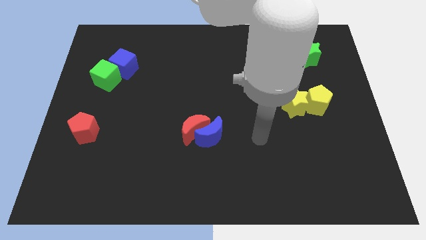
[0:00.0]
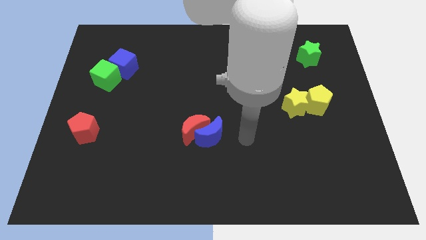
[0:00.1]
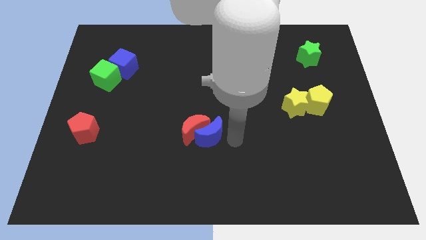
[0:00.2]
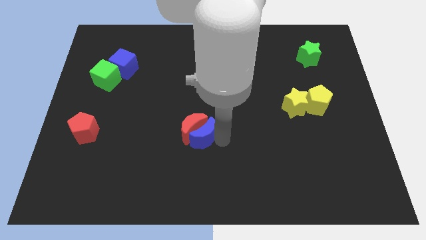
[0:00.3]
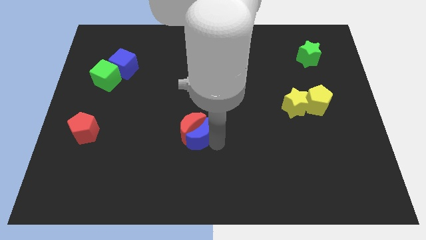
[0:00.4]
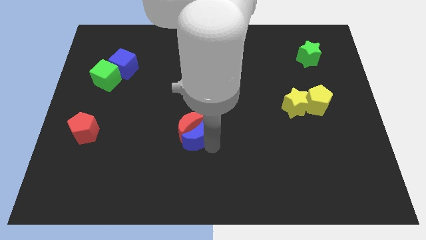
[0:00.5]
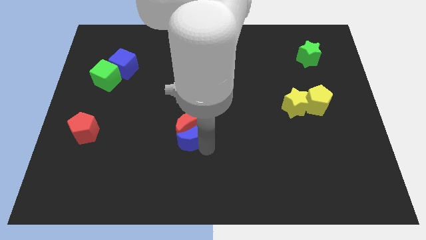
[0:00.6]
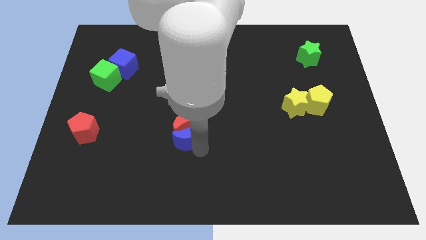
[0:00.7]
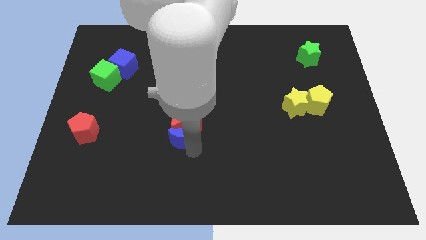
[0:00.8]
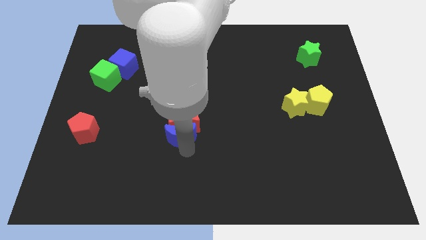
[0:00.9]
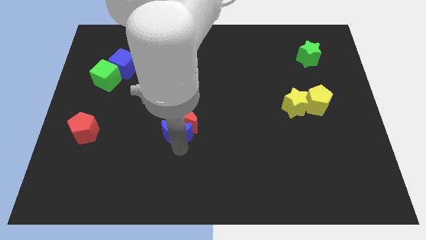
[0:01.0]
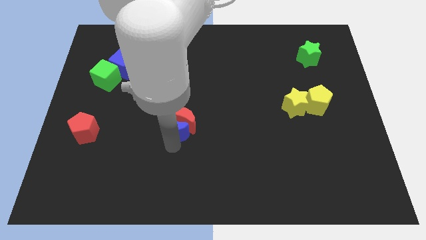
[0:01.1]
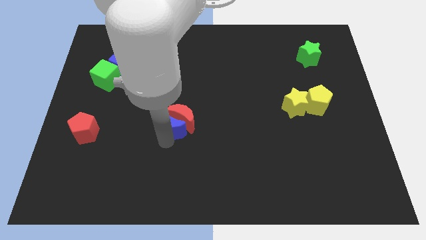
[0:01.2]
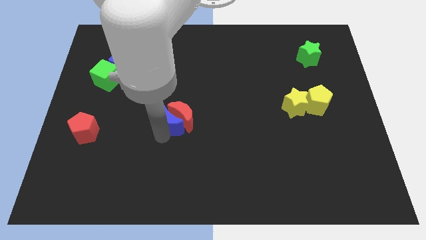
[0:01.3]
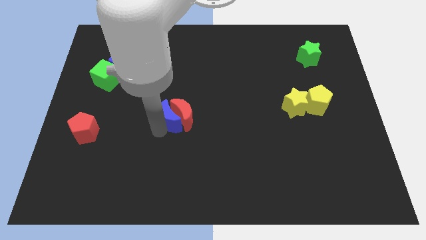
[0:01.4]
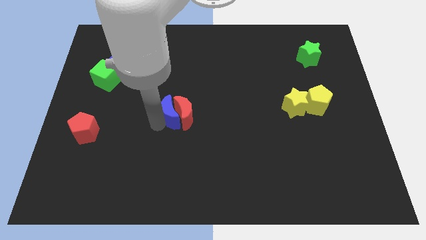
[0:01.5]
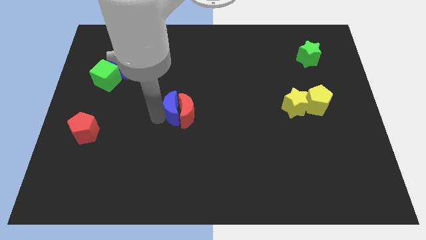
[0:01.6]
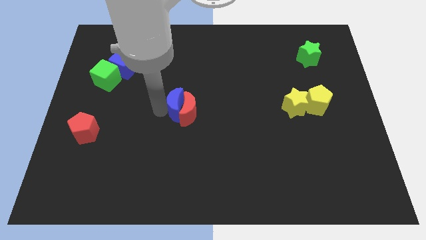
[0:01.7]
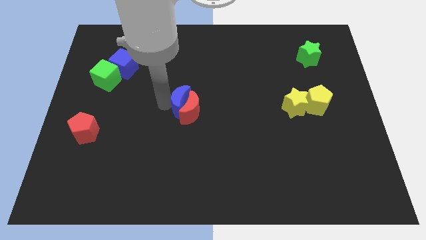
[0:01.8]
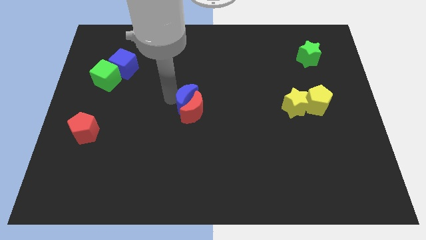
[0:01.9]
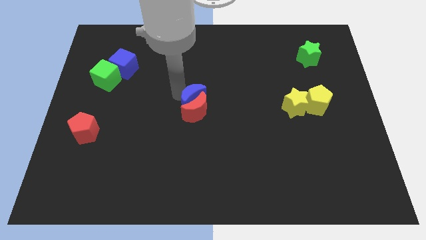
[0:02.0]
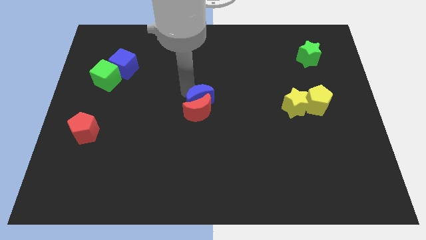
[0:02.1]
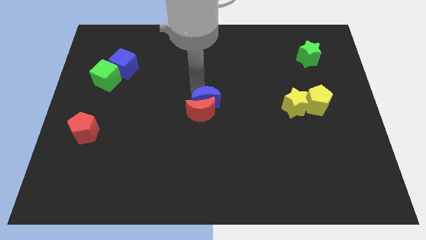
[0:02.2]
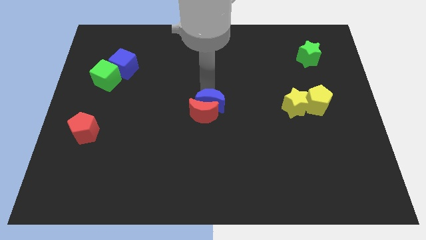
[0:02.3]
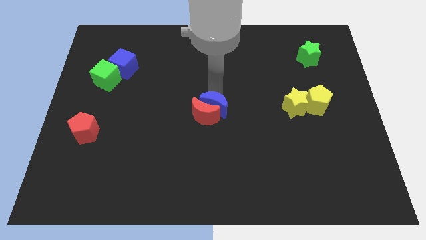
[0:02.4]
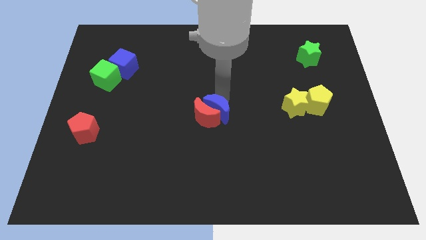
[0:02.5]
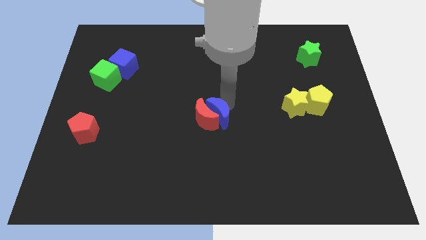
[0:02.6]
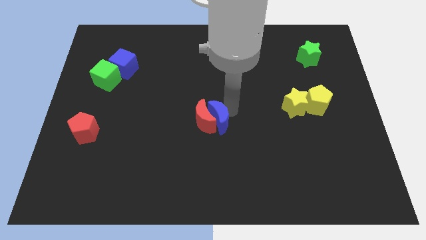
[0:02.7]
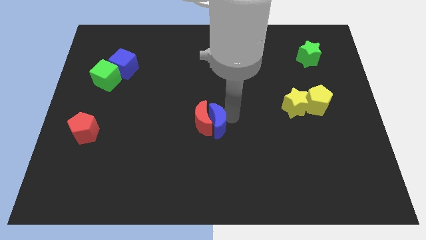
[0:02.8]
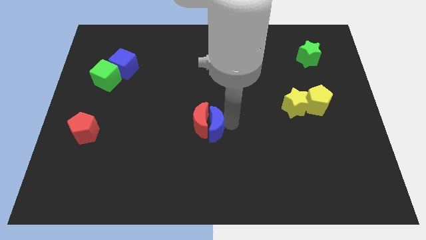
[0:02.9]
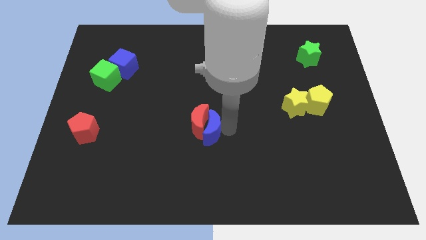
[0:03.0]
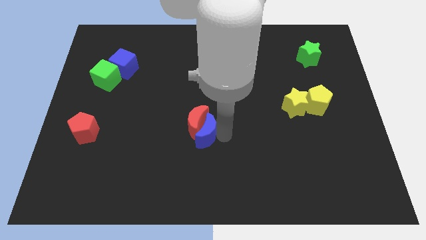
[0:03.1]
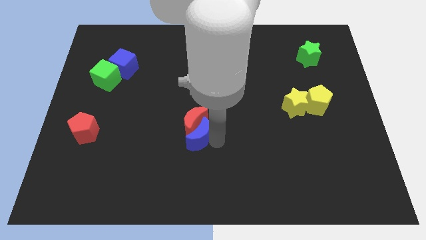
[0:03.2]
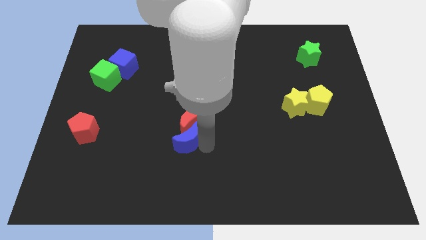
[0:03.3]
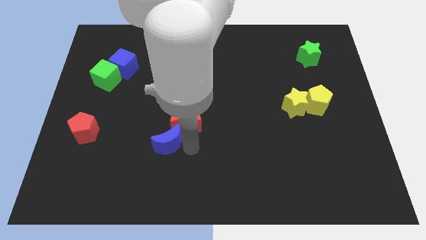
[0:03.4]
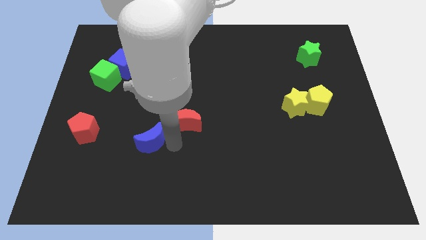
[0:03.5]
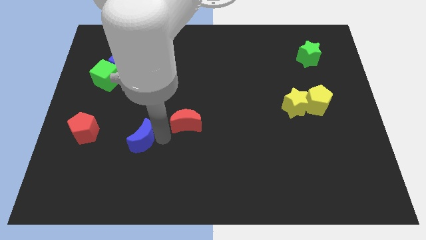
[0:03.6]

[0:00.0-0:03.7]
pull the red moon apart from the blue moon

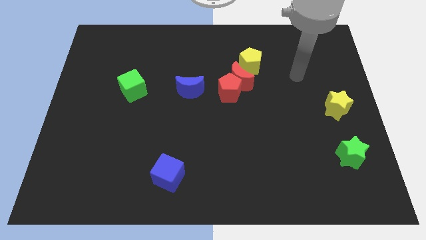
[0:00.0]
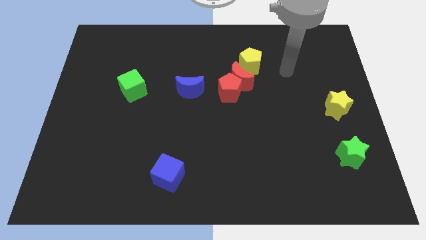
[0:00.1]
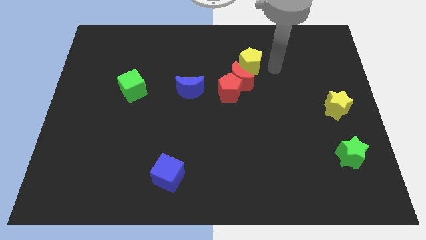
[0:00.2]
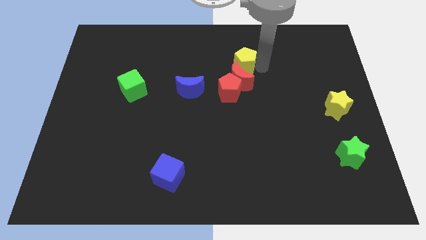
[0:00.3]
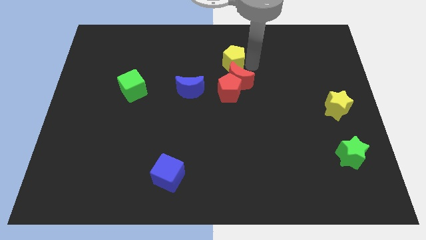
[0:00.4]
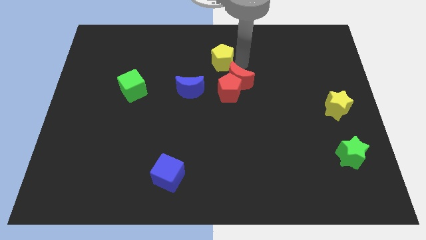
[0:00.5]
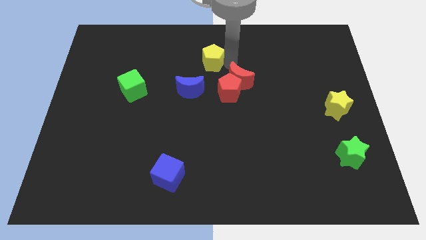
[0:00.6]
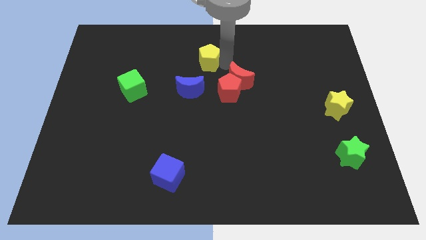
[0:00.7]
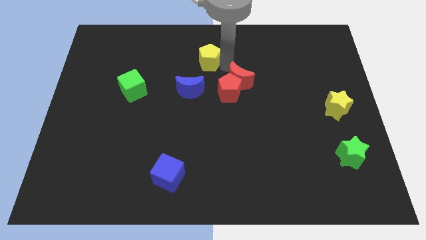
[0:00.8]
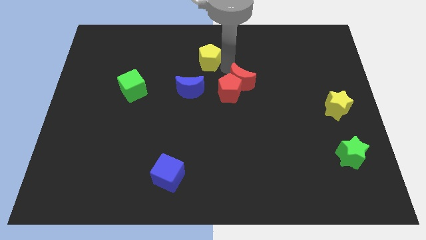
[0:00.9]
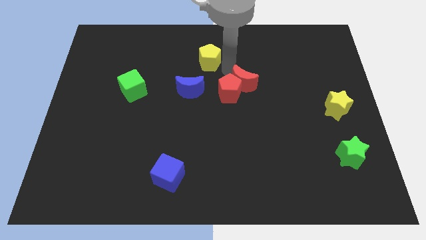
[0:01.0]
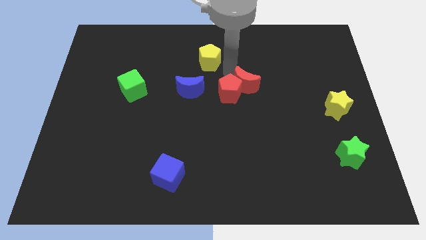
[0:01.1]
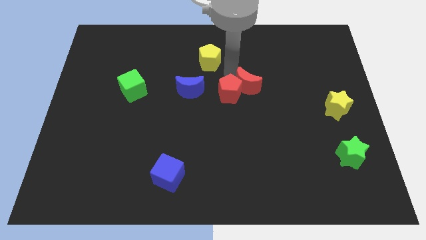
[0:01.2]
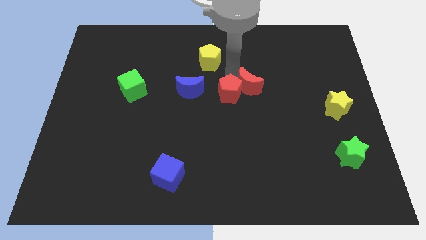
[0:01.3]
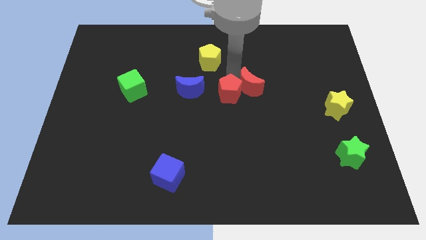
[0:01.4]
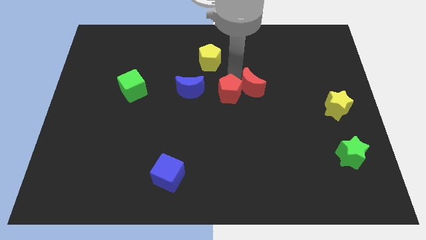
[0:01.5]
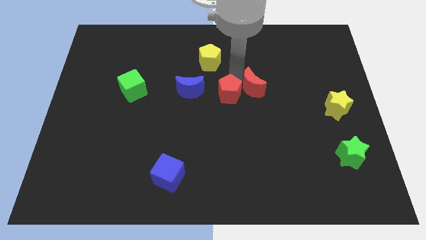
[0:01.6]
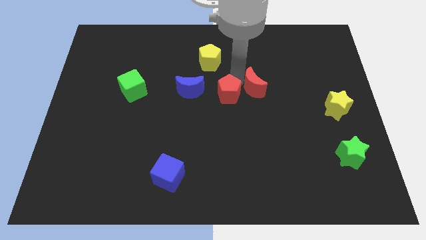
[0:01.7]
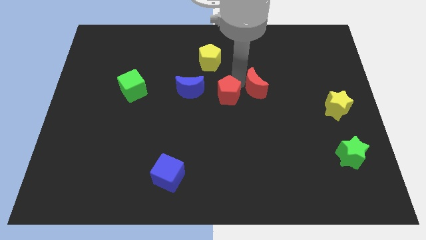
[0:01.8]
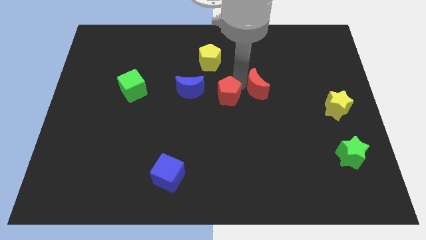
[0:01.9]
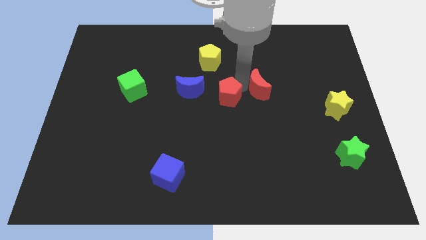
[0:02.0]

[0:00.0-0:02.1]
separate the red moon from the red pentagon and yellow pentagon

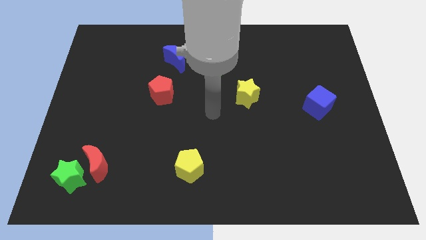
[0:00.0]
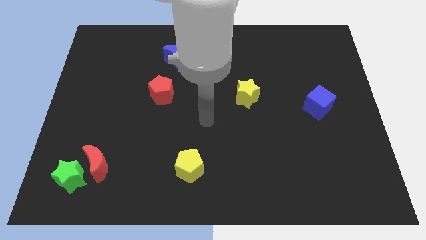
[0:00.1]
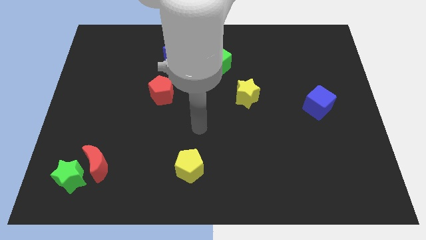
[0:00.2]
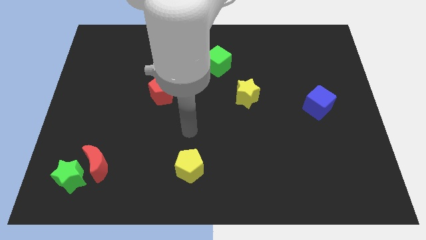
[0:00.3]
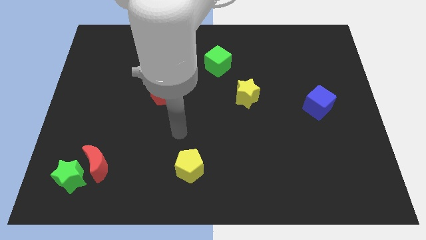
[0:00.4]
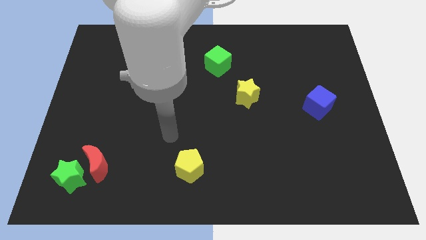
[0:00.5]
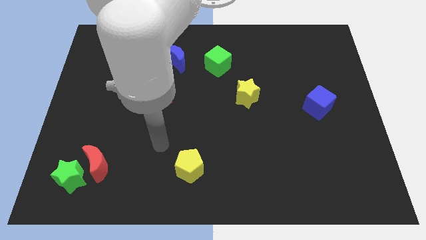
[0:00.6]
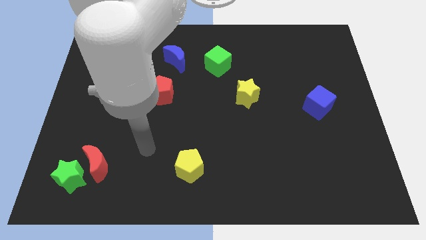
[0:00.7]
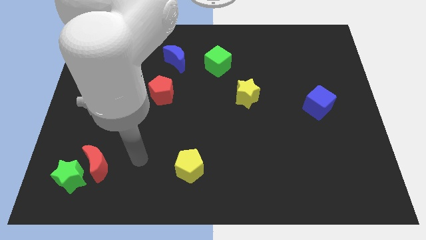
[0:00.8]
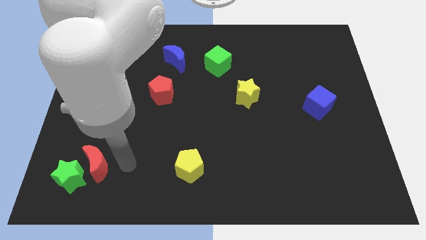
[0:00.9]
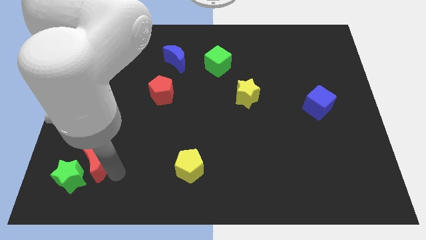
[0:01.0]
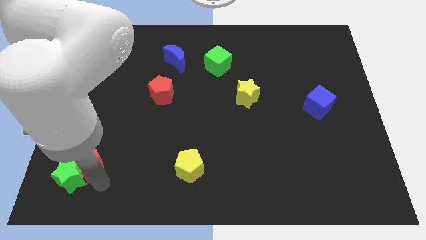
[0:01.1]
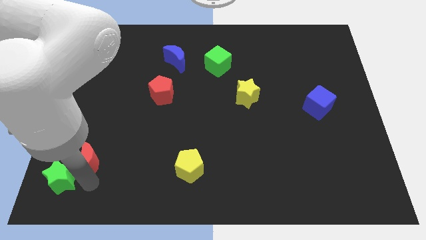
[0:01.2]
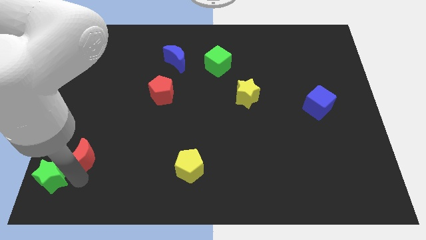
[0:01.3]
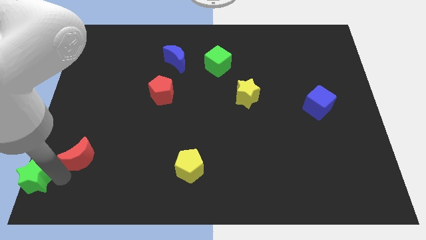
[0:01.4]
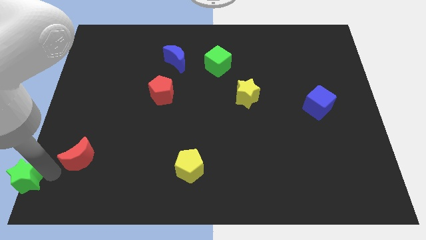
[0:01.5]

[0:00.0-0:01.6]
move the red moon away from the green star

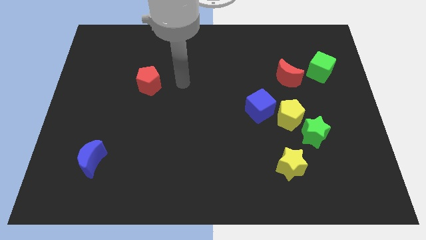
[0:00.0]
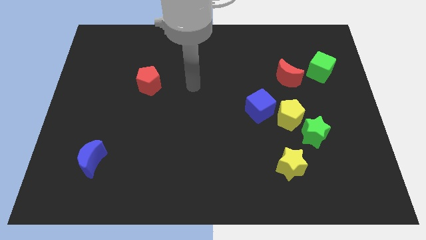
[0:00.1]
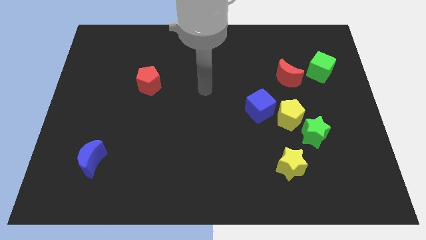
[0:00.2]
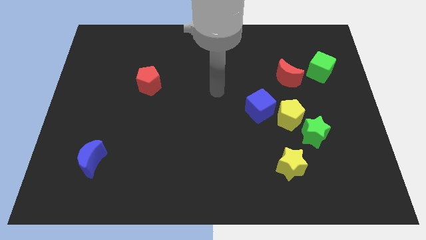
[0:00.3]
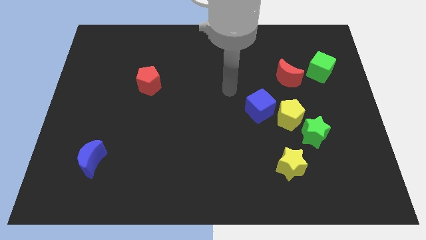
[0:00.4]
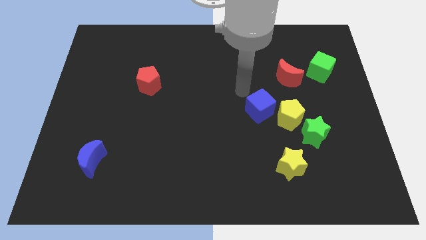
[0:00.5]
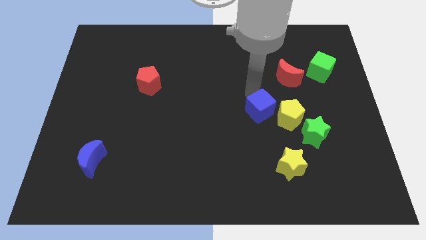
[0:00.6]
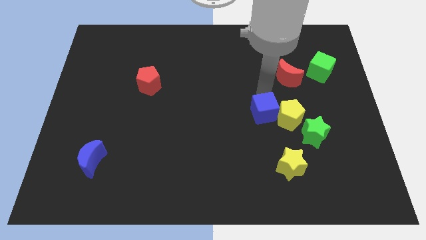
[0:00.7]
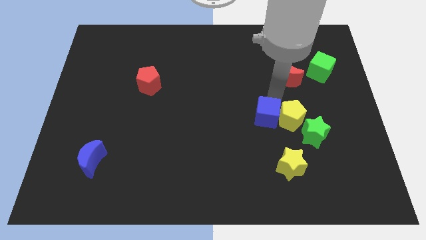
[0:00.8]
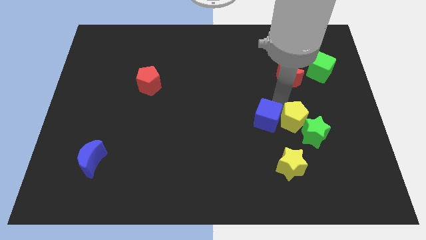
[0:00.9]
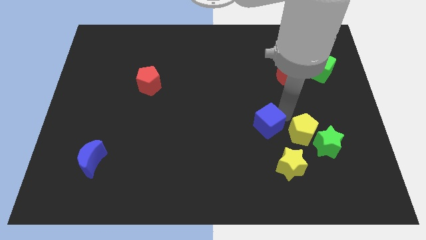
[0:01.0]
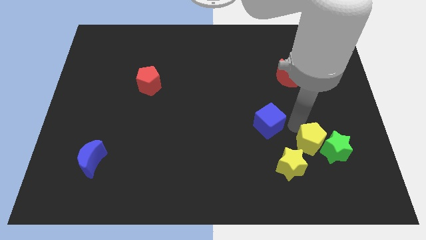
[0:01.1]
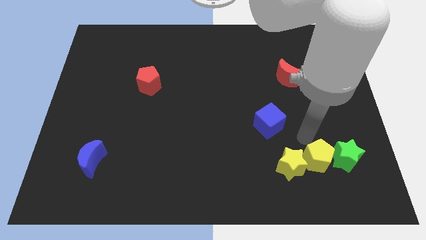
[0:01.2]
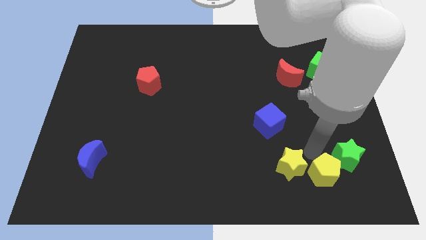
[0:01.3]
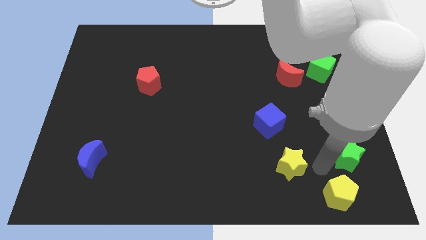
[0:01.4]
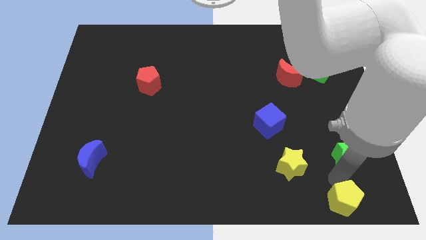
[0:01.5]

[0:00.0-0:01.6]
pull the green star apart from the yellow pentagon

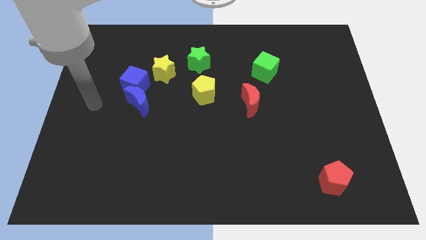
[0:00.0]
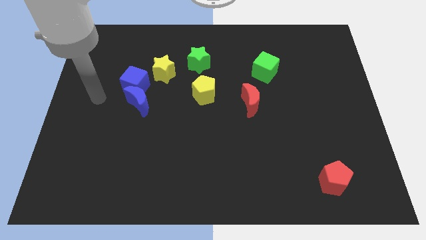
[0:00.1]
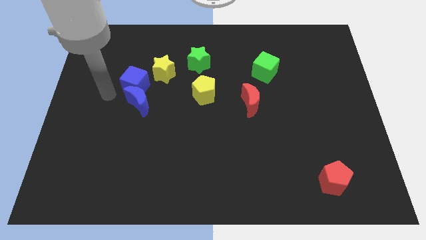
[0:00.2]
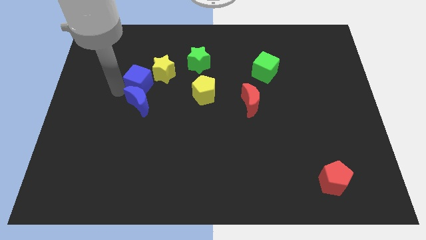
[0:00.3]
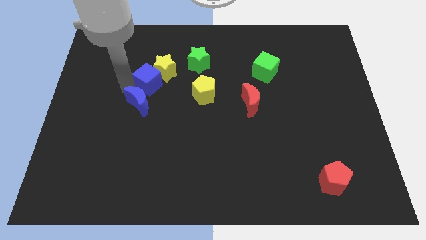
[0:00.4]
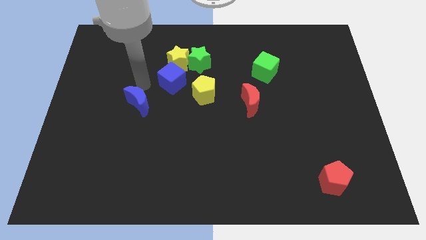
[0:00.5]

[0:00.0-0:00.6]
pull the blue moon apart from the blue cube
